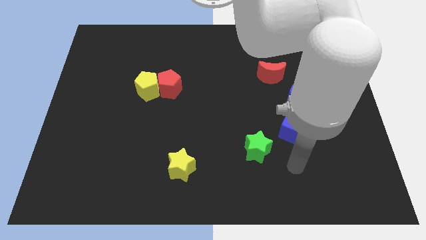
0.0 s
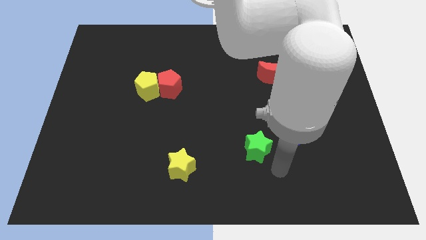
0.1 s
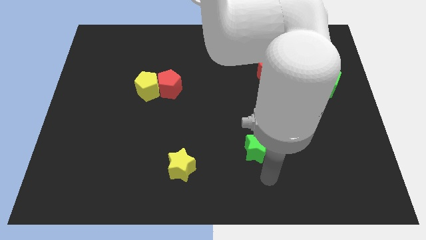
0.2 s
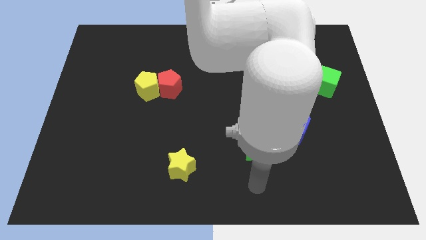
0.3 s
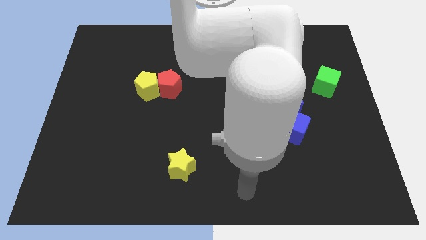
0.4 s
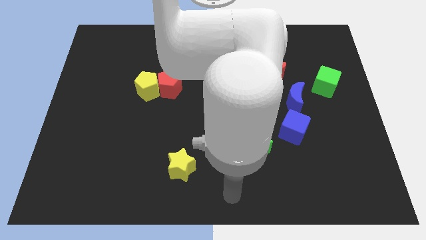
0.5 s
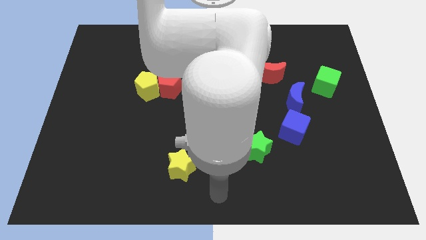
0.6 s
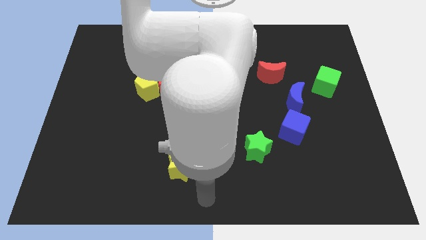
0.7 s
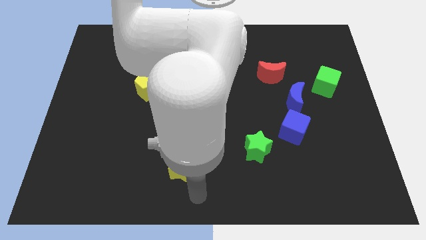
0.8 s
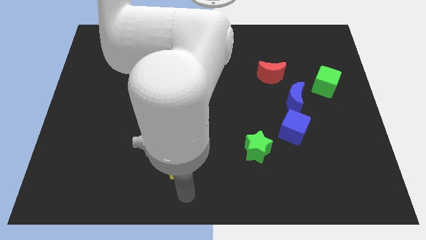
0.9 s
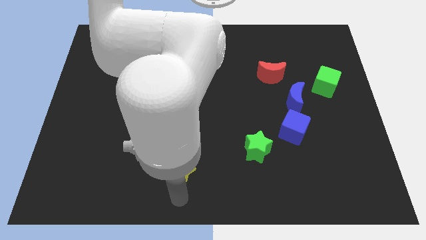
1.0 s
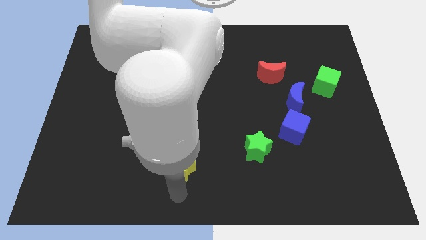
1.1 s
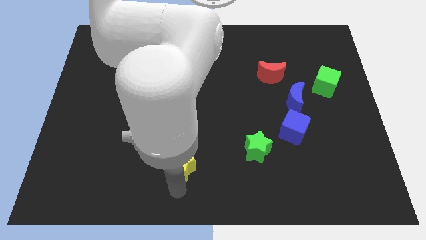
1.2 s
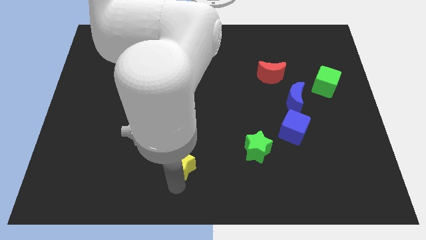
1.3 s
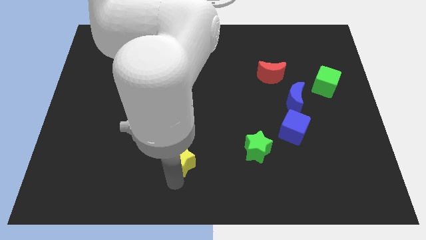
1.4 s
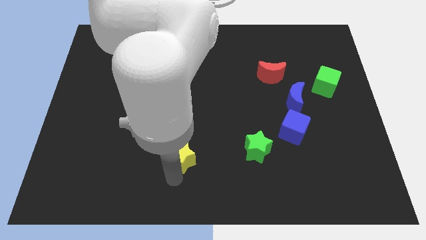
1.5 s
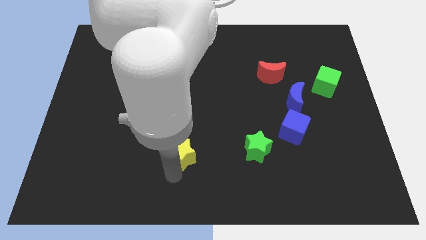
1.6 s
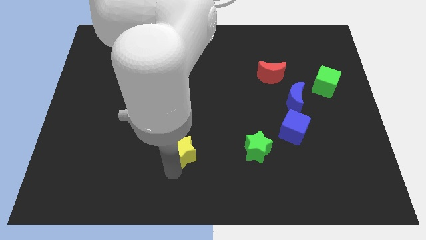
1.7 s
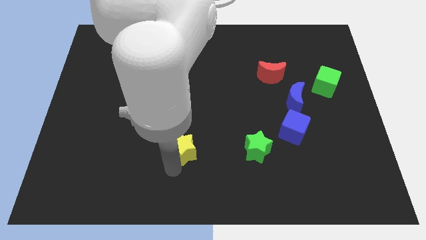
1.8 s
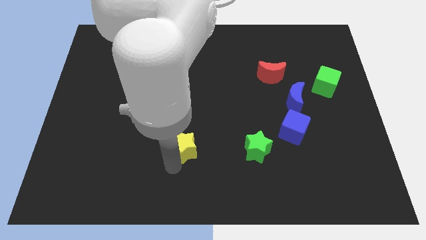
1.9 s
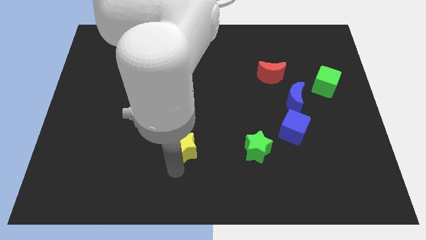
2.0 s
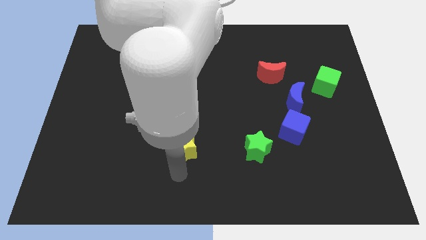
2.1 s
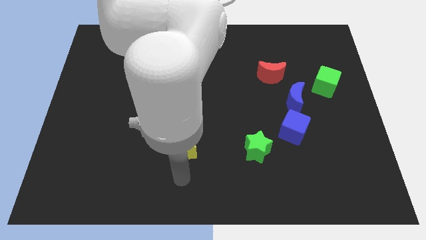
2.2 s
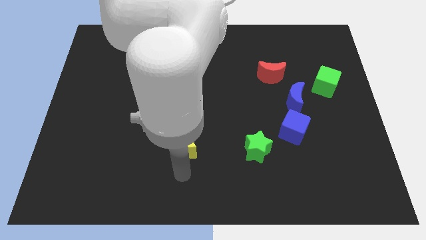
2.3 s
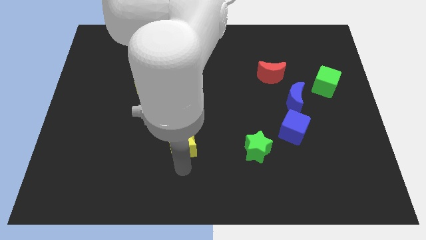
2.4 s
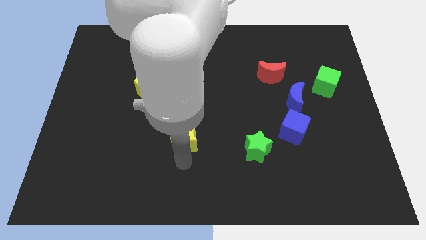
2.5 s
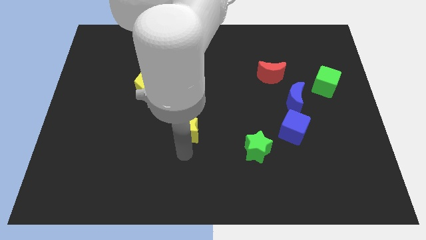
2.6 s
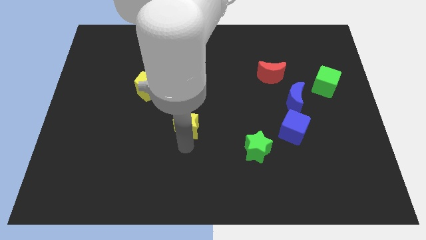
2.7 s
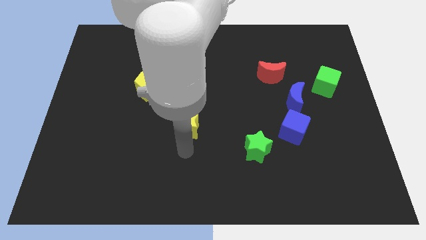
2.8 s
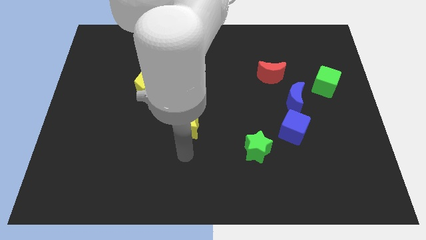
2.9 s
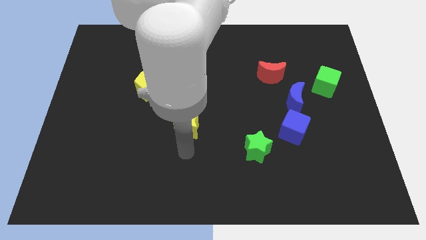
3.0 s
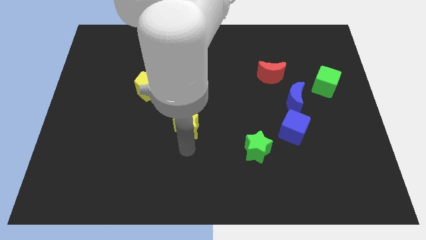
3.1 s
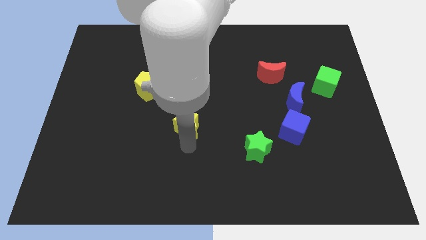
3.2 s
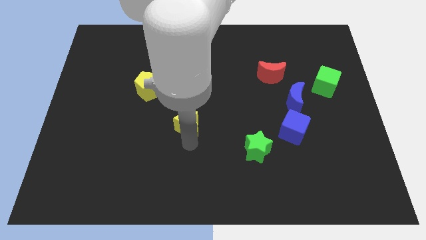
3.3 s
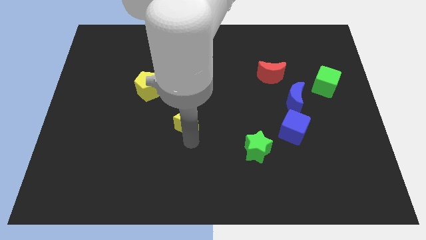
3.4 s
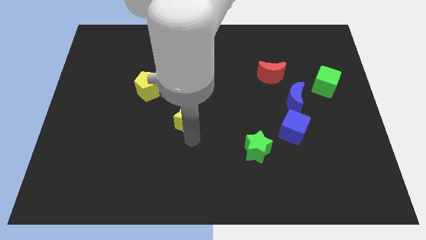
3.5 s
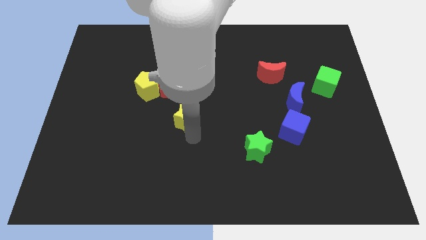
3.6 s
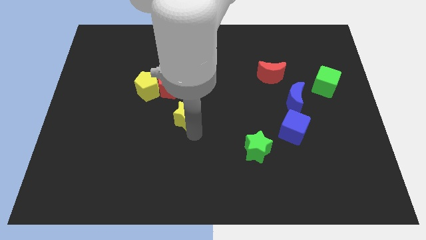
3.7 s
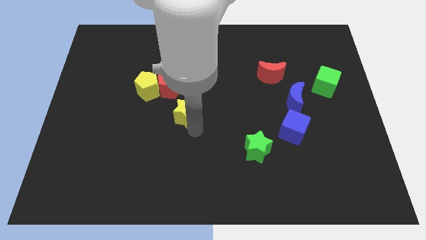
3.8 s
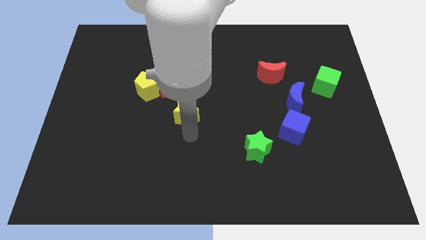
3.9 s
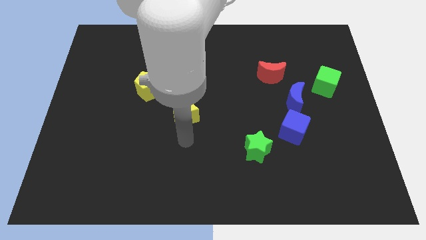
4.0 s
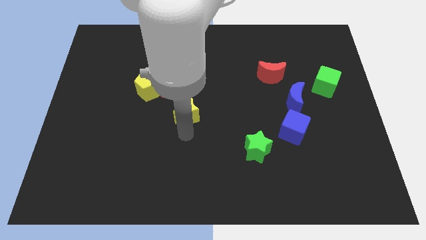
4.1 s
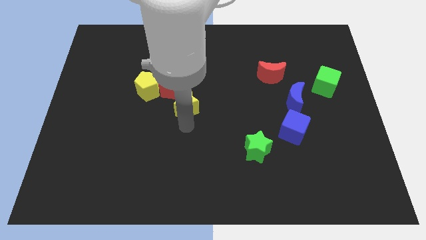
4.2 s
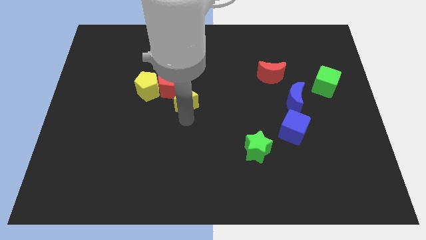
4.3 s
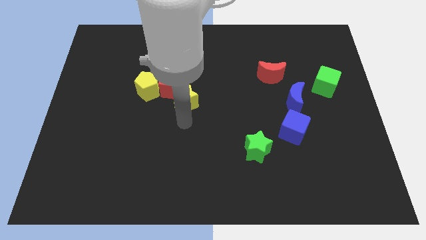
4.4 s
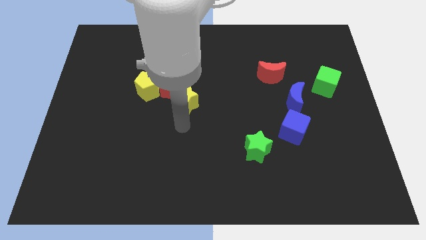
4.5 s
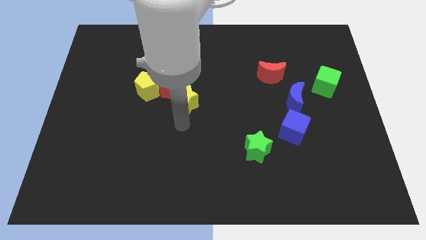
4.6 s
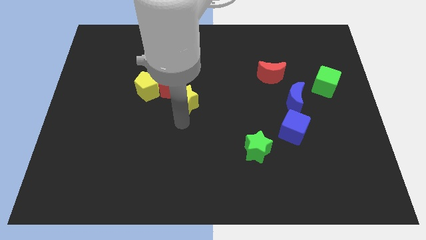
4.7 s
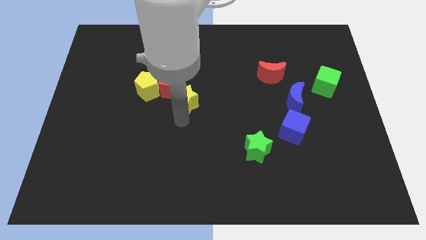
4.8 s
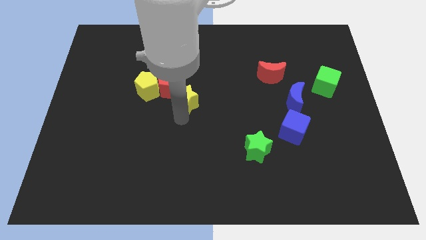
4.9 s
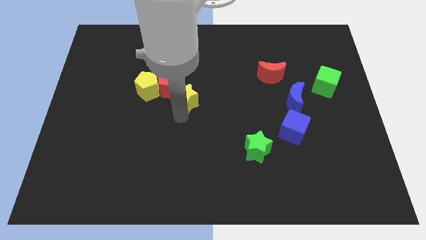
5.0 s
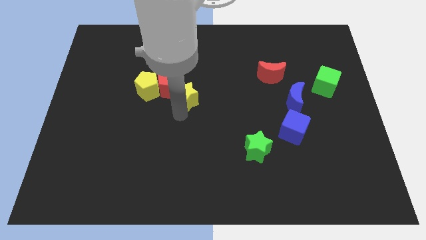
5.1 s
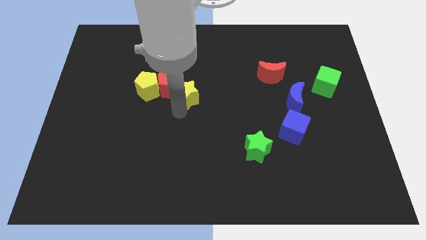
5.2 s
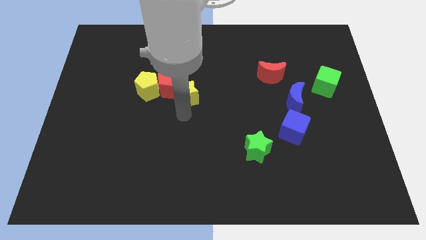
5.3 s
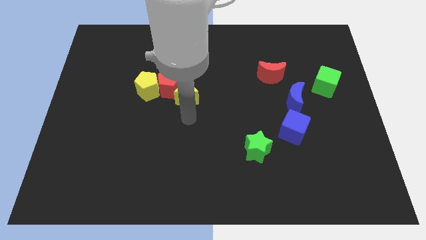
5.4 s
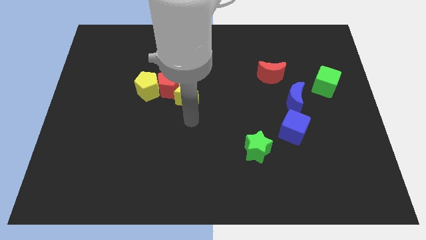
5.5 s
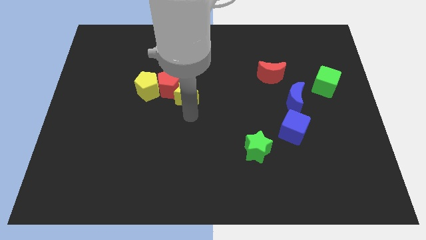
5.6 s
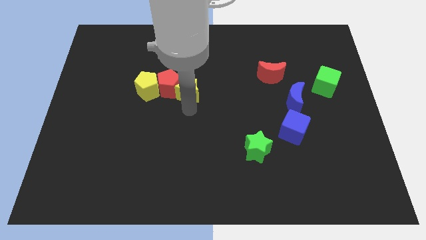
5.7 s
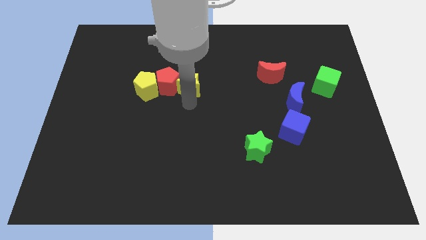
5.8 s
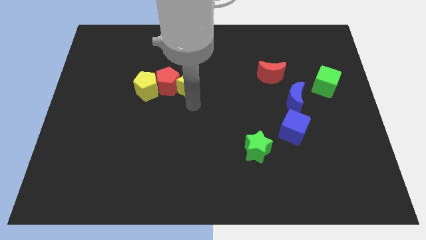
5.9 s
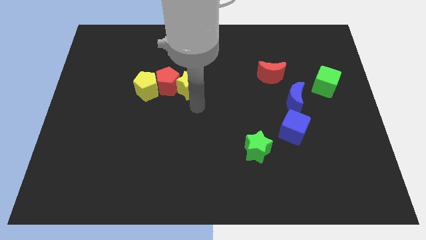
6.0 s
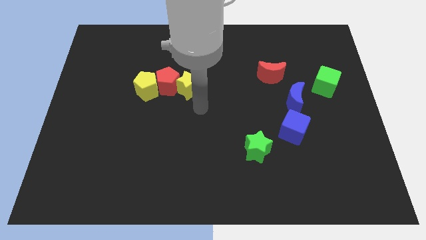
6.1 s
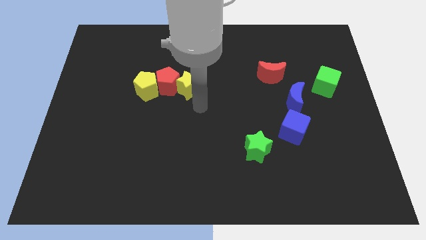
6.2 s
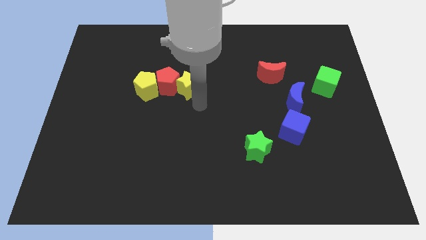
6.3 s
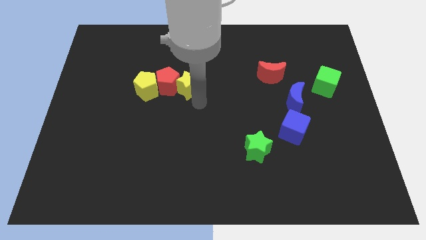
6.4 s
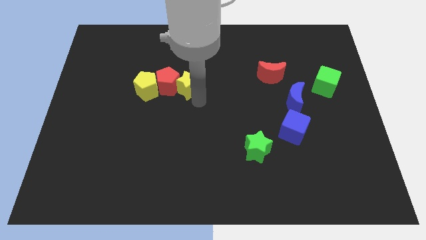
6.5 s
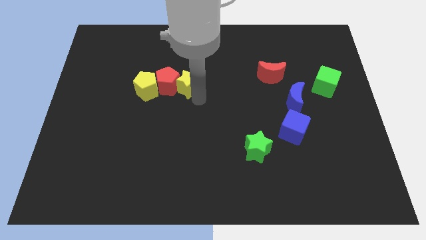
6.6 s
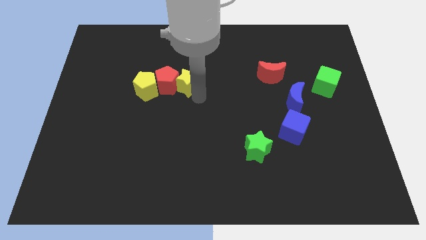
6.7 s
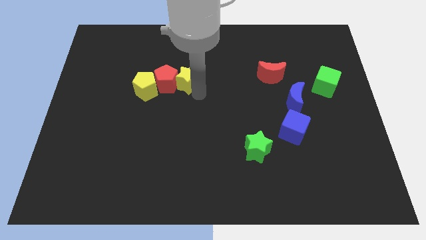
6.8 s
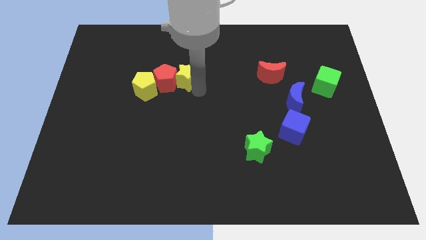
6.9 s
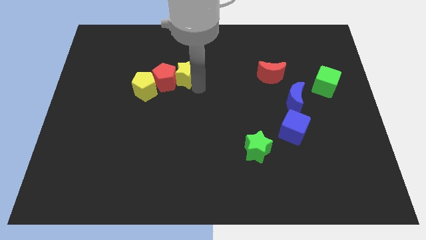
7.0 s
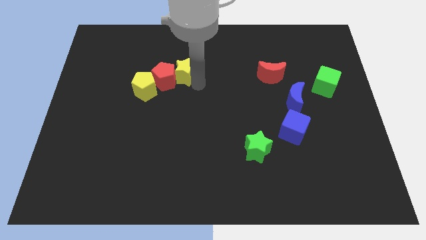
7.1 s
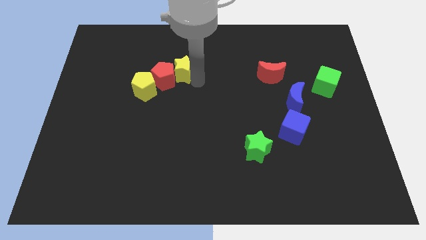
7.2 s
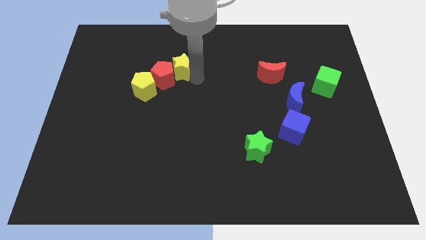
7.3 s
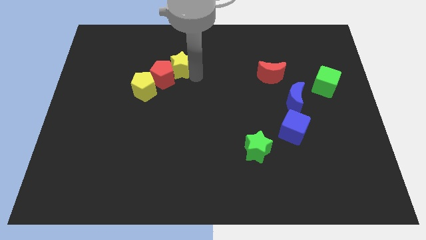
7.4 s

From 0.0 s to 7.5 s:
push the yellow star to the top of the red pentagon
